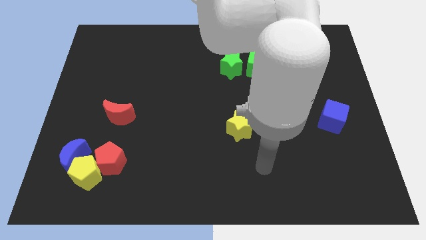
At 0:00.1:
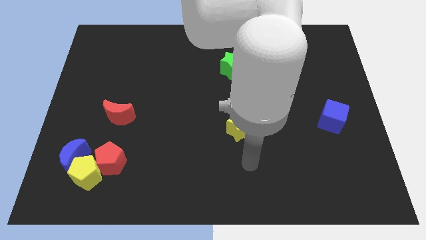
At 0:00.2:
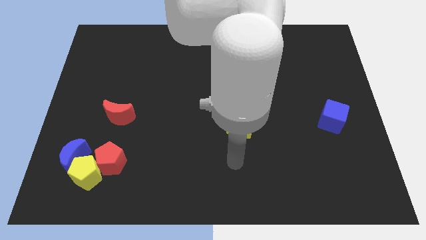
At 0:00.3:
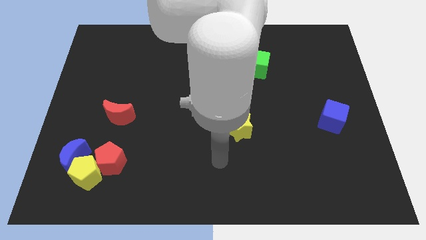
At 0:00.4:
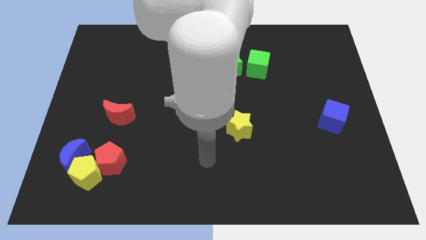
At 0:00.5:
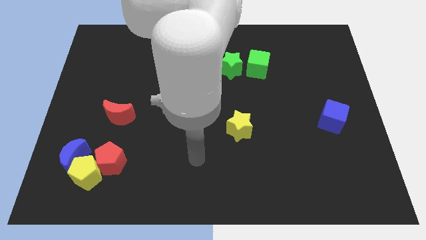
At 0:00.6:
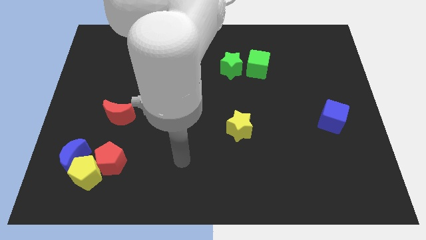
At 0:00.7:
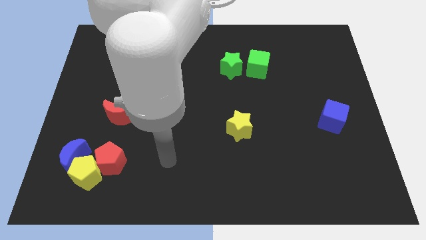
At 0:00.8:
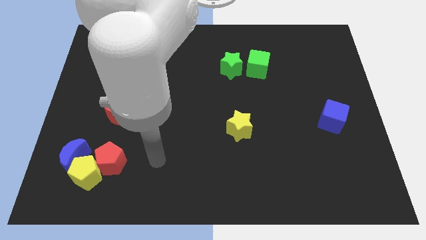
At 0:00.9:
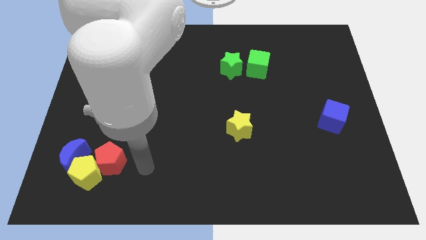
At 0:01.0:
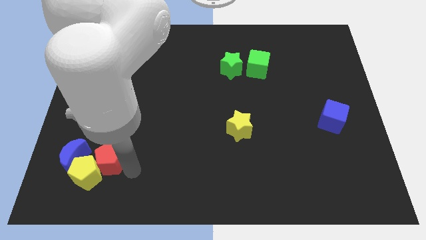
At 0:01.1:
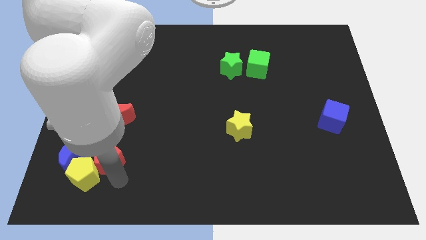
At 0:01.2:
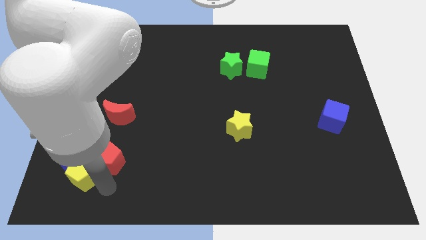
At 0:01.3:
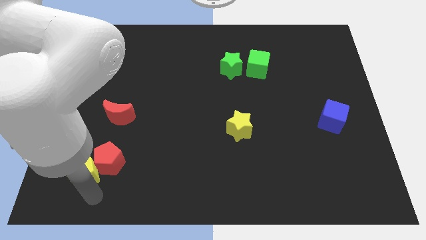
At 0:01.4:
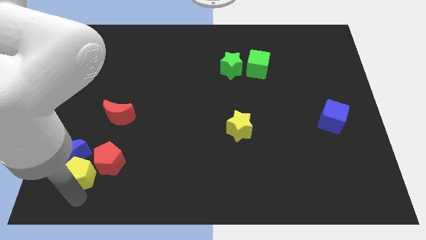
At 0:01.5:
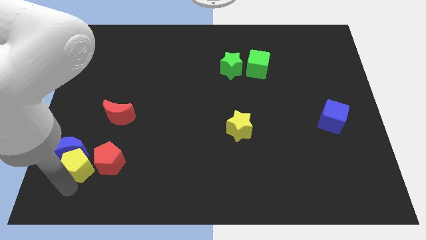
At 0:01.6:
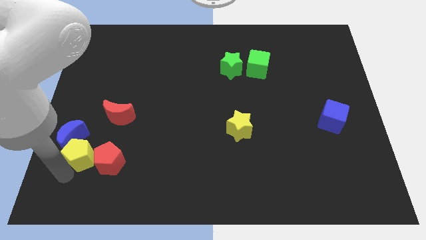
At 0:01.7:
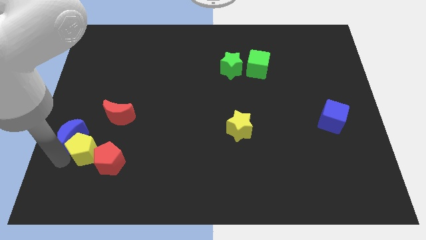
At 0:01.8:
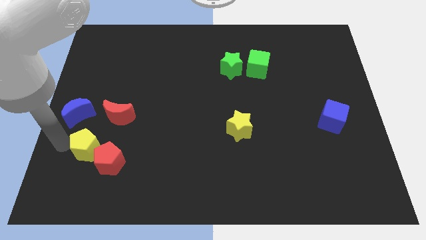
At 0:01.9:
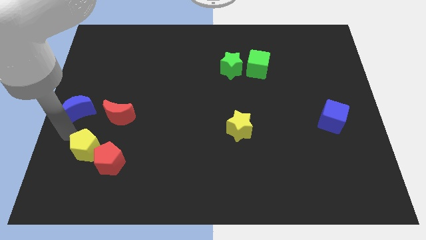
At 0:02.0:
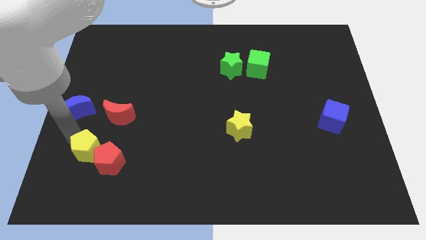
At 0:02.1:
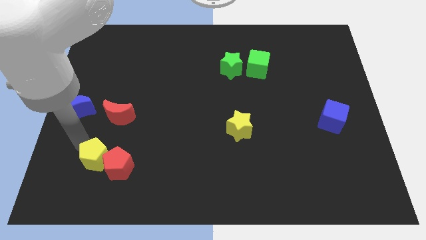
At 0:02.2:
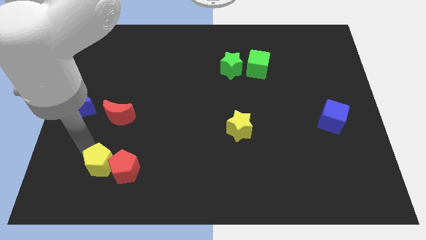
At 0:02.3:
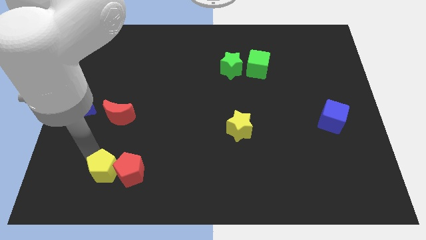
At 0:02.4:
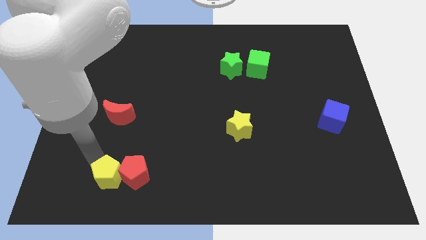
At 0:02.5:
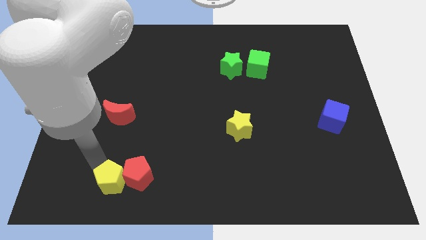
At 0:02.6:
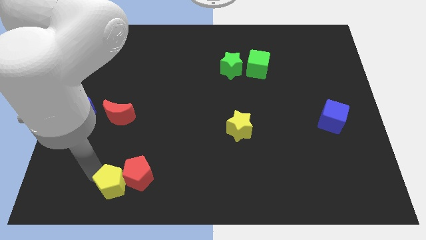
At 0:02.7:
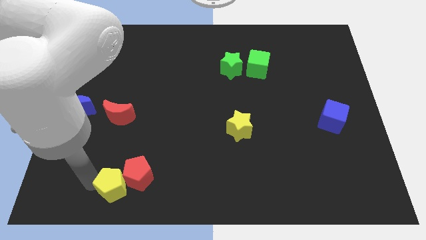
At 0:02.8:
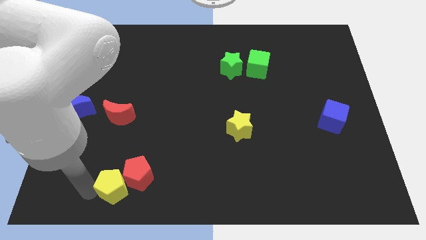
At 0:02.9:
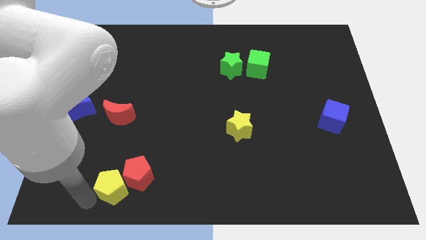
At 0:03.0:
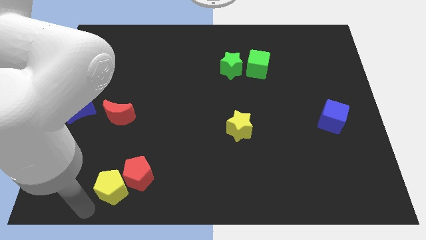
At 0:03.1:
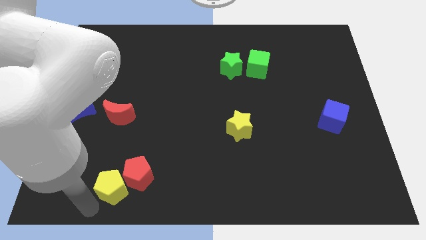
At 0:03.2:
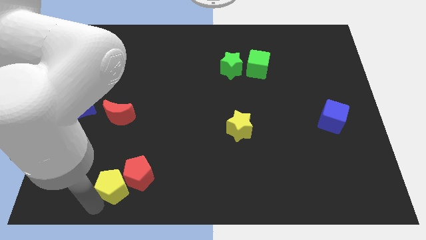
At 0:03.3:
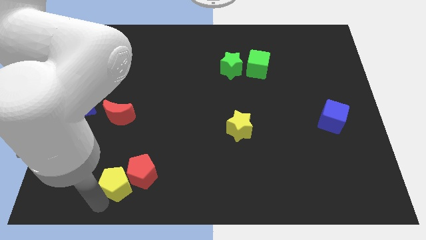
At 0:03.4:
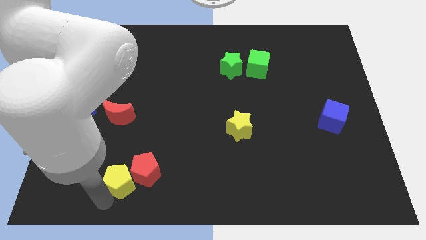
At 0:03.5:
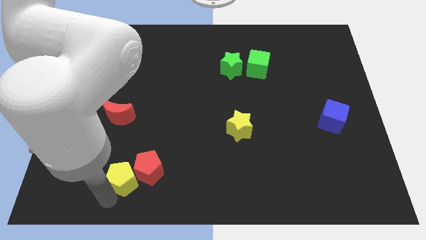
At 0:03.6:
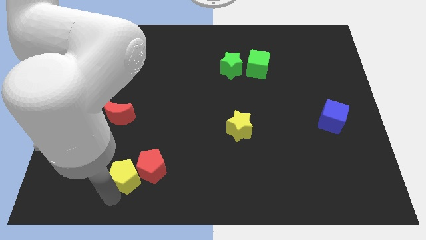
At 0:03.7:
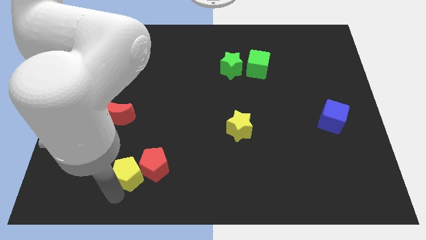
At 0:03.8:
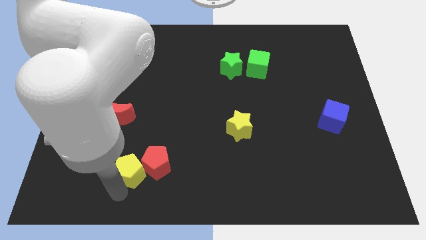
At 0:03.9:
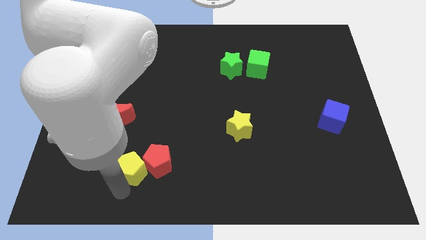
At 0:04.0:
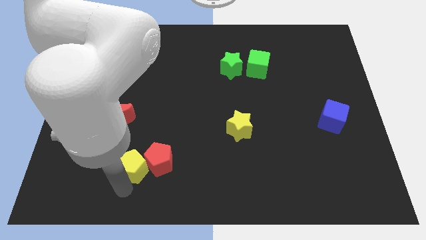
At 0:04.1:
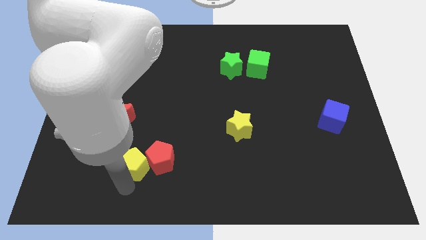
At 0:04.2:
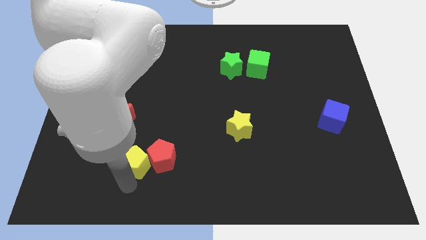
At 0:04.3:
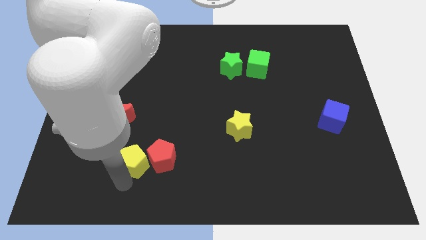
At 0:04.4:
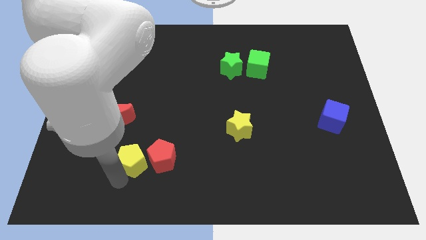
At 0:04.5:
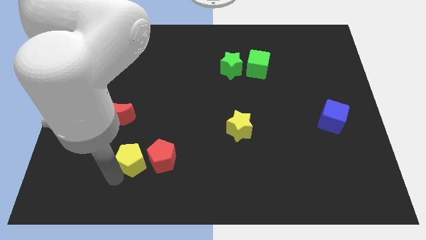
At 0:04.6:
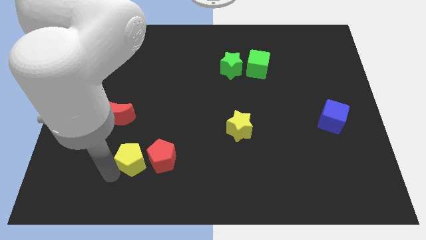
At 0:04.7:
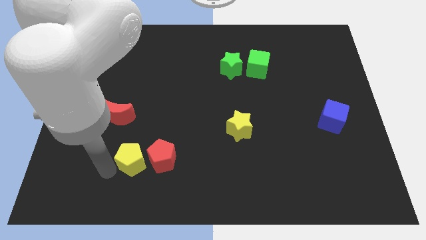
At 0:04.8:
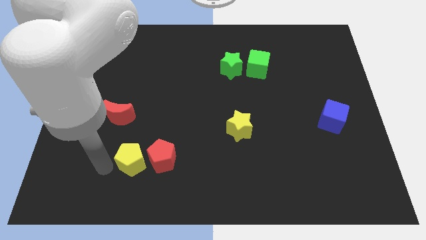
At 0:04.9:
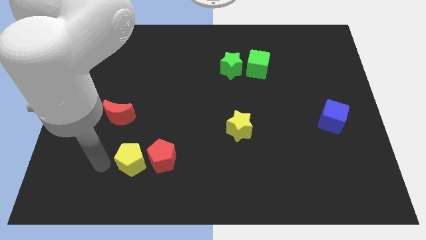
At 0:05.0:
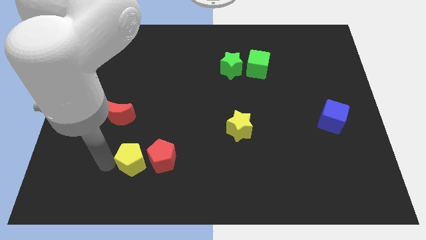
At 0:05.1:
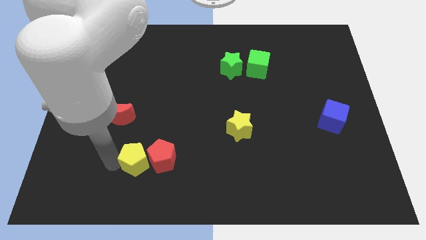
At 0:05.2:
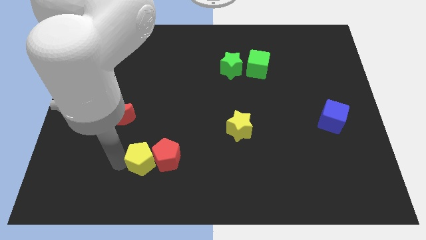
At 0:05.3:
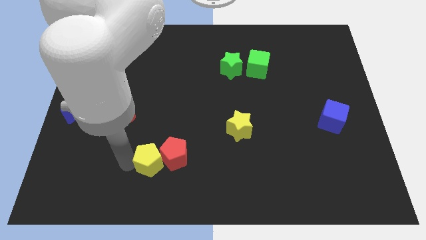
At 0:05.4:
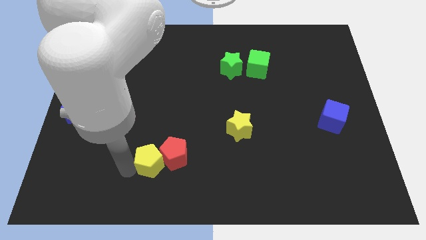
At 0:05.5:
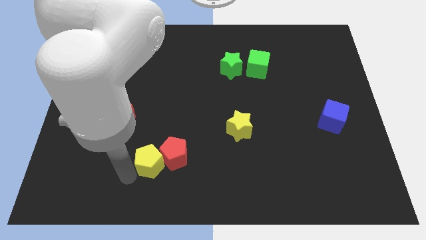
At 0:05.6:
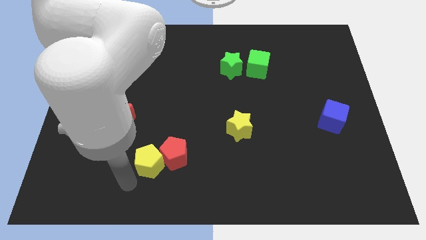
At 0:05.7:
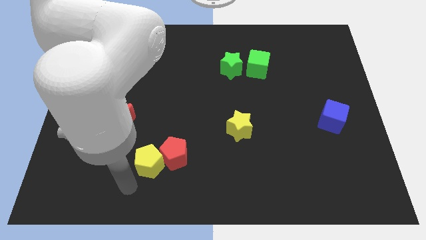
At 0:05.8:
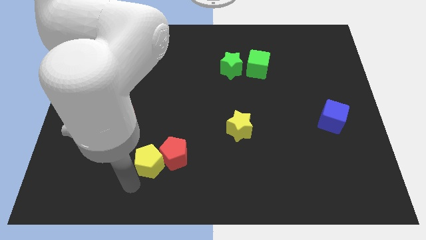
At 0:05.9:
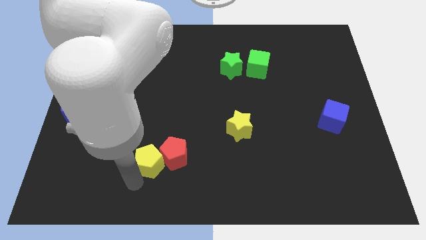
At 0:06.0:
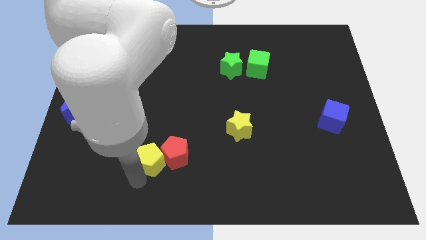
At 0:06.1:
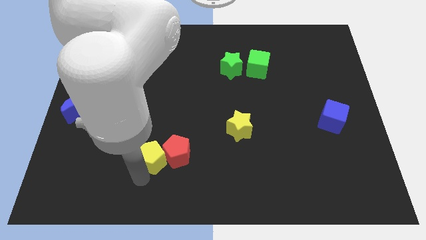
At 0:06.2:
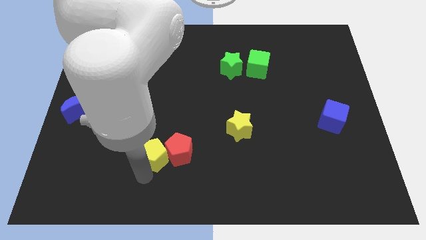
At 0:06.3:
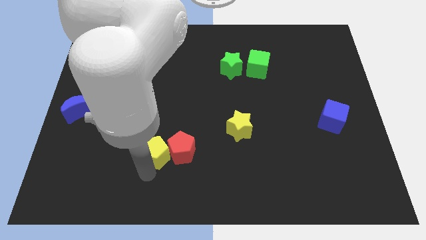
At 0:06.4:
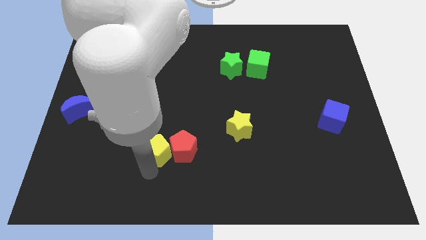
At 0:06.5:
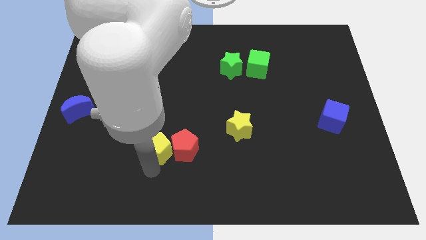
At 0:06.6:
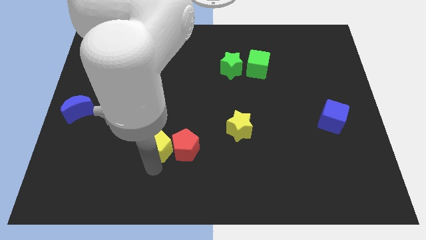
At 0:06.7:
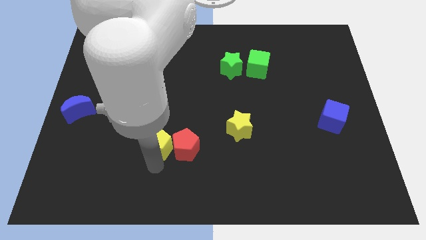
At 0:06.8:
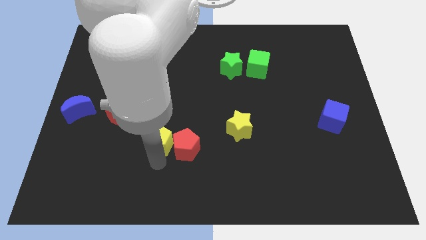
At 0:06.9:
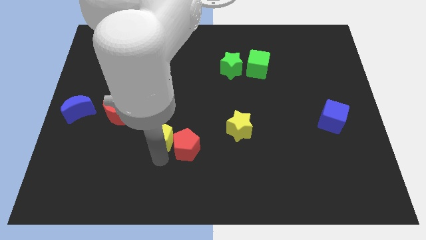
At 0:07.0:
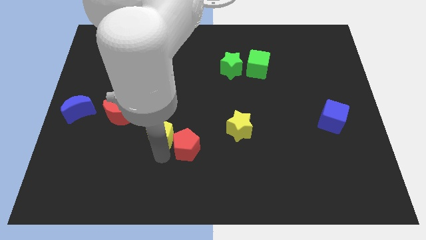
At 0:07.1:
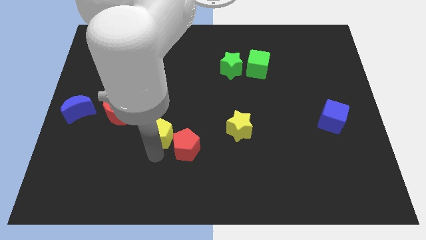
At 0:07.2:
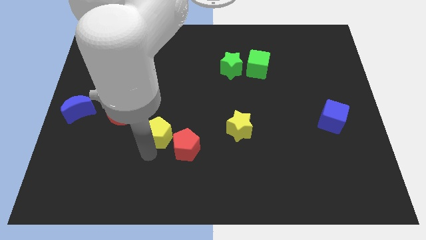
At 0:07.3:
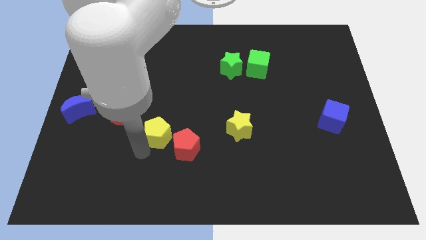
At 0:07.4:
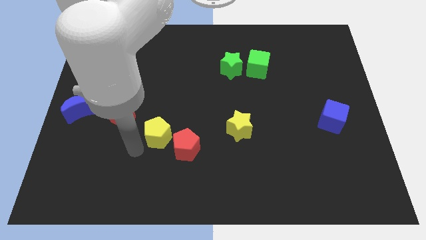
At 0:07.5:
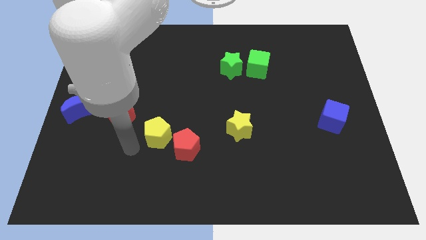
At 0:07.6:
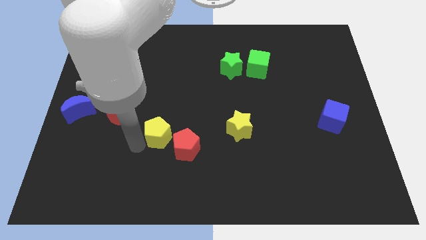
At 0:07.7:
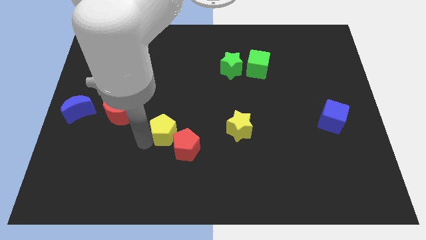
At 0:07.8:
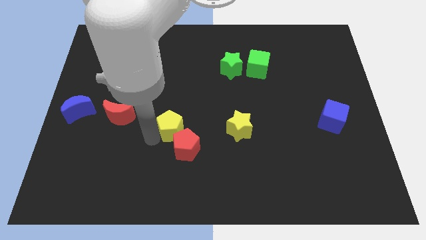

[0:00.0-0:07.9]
slide the yellow pentagon to the center of the board
